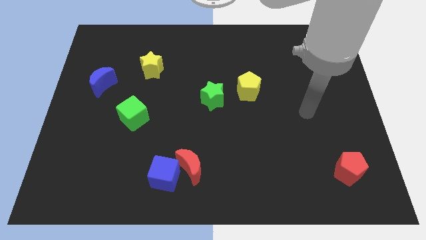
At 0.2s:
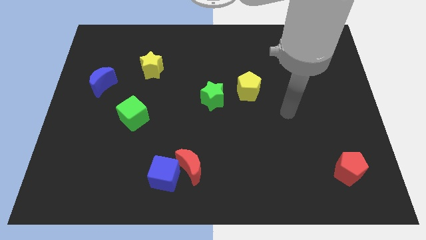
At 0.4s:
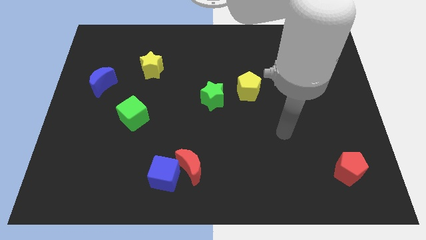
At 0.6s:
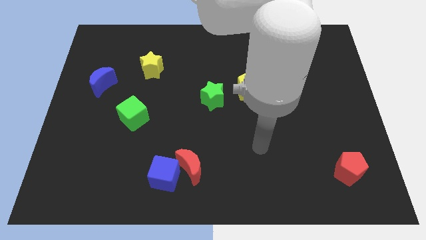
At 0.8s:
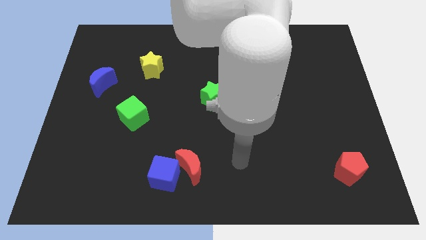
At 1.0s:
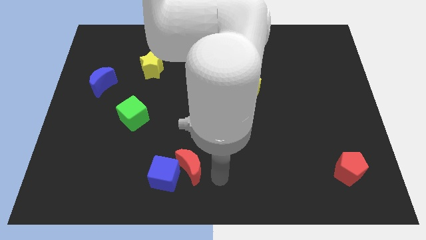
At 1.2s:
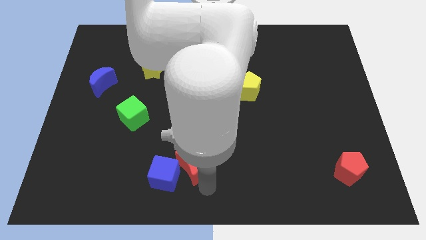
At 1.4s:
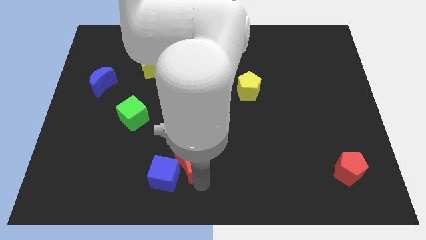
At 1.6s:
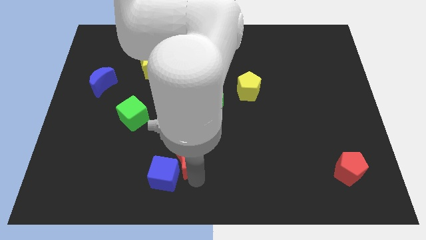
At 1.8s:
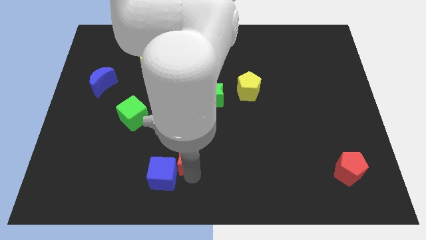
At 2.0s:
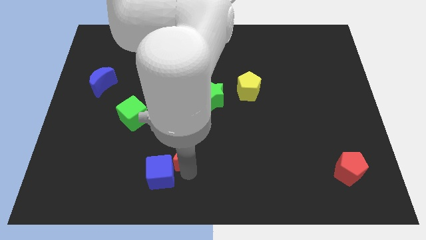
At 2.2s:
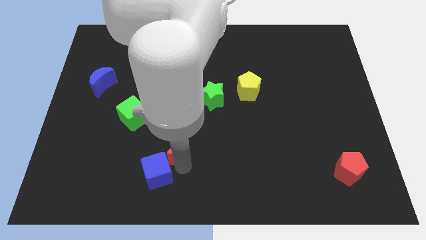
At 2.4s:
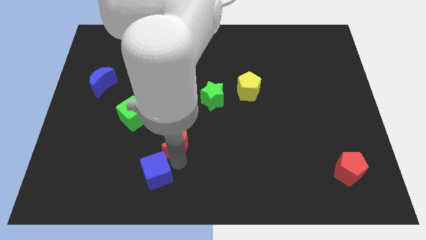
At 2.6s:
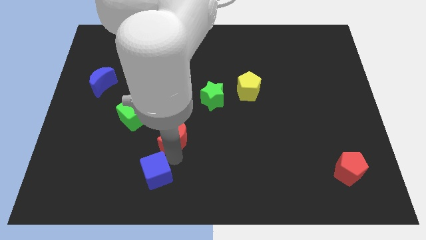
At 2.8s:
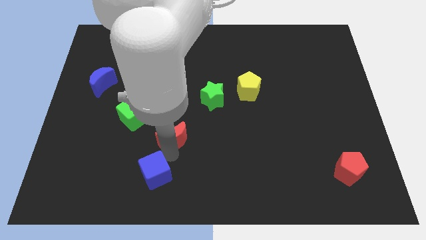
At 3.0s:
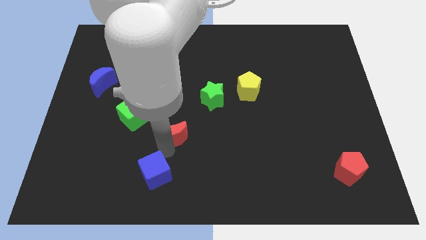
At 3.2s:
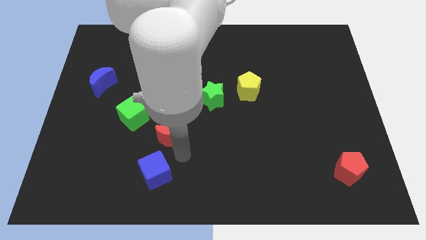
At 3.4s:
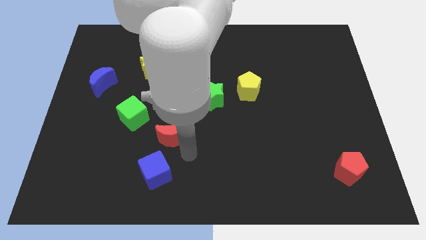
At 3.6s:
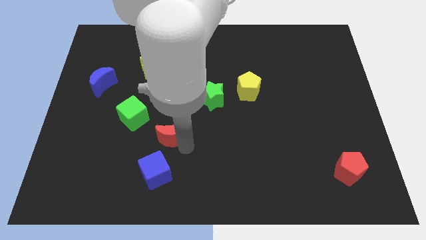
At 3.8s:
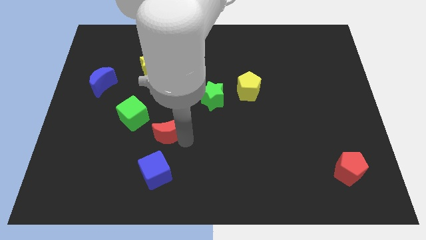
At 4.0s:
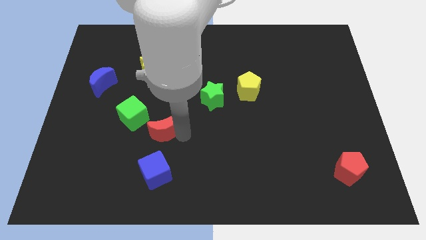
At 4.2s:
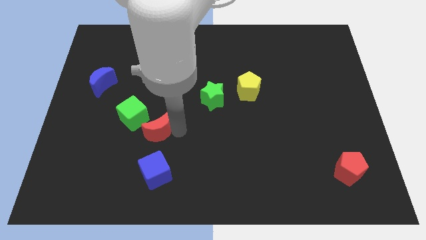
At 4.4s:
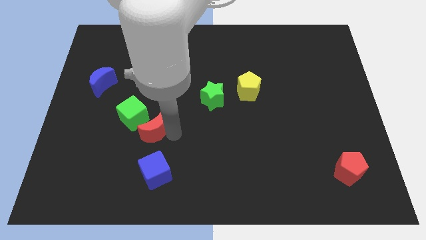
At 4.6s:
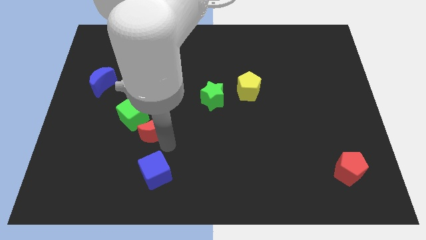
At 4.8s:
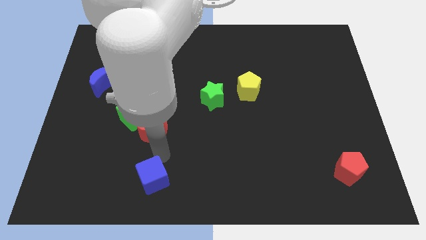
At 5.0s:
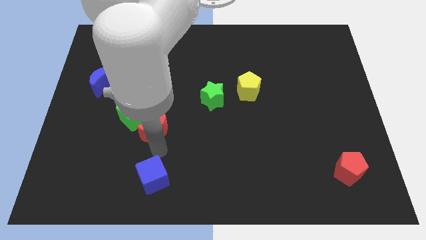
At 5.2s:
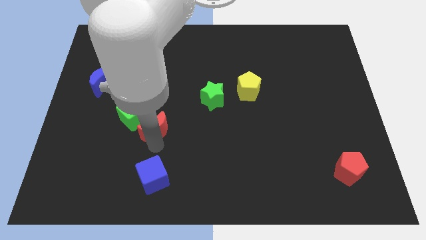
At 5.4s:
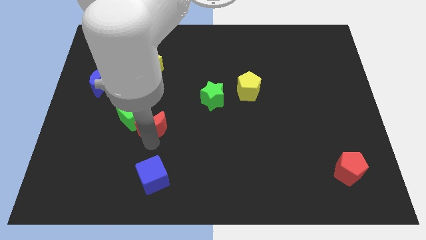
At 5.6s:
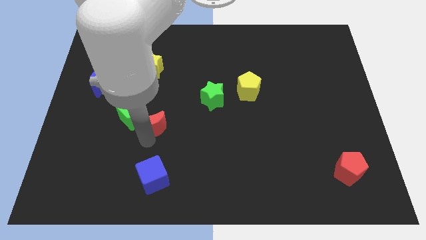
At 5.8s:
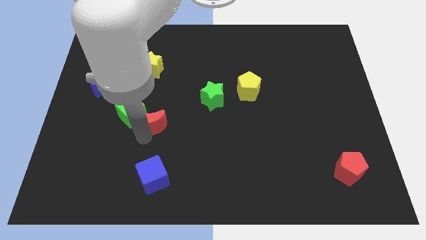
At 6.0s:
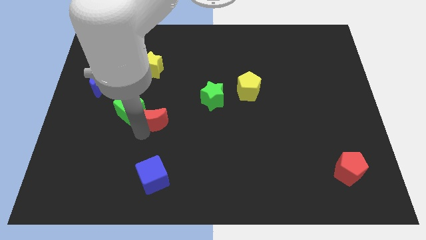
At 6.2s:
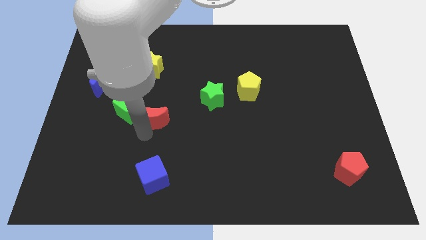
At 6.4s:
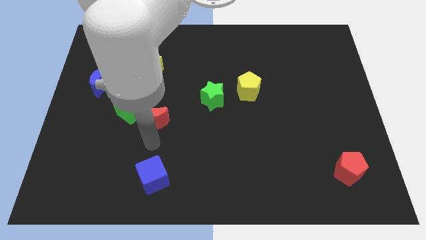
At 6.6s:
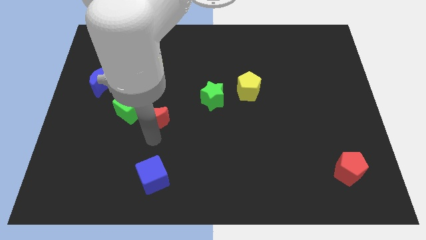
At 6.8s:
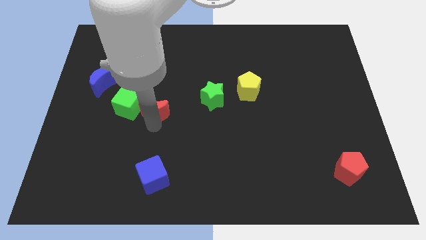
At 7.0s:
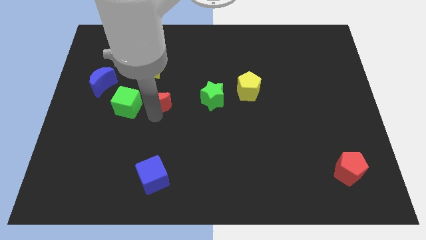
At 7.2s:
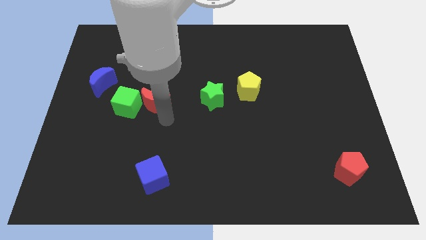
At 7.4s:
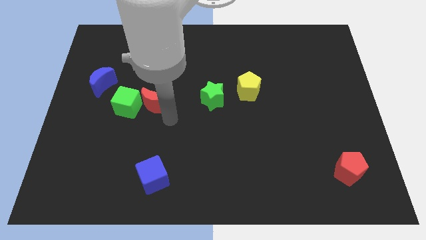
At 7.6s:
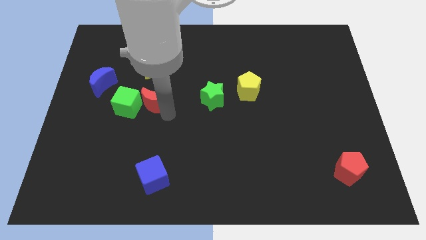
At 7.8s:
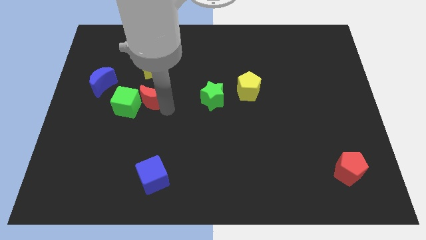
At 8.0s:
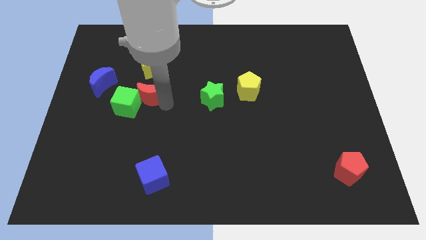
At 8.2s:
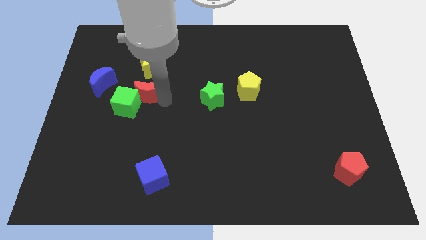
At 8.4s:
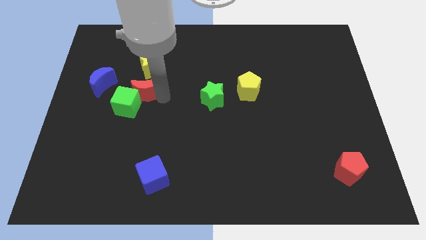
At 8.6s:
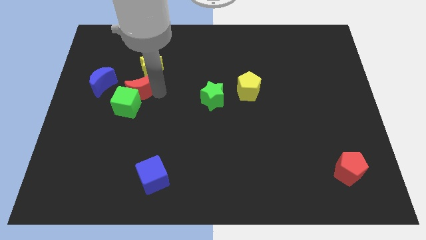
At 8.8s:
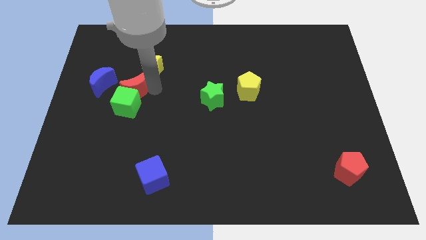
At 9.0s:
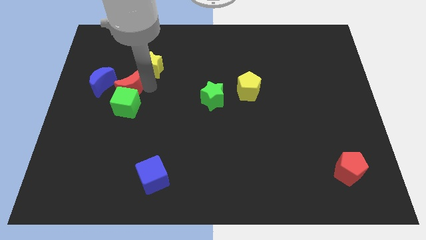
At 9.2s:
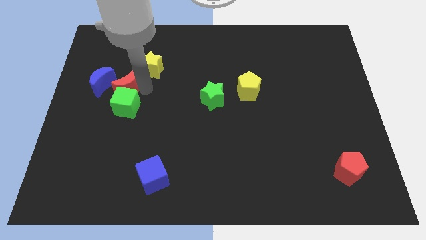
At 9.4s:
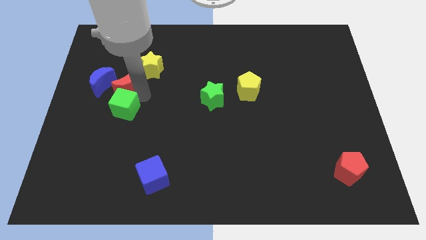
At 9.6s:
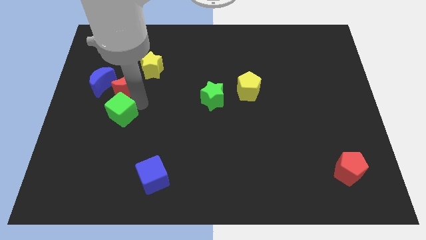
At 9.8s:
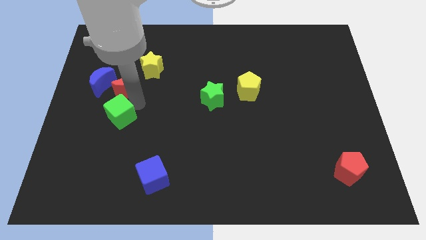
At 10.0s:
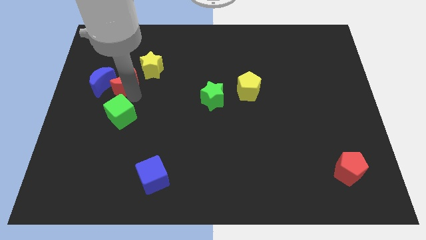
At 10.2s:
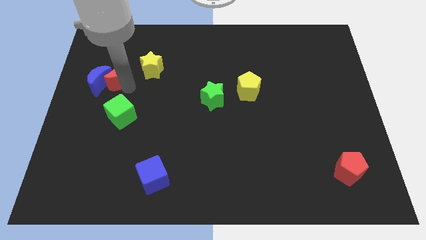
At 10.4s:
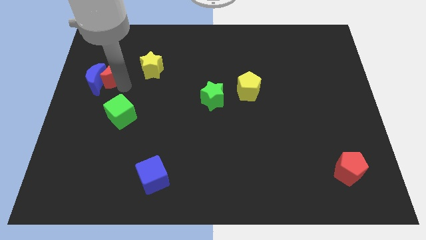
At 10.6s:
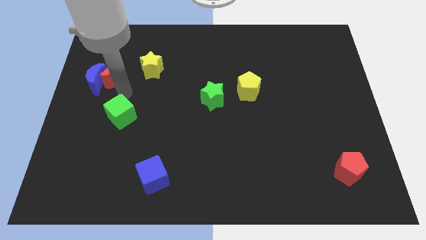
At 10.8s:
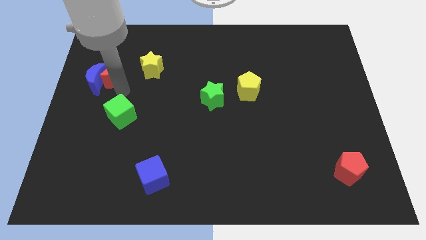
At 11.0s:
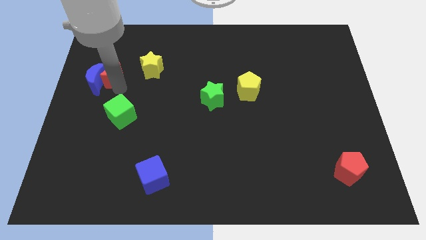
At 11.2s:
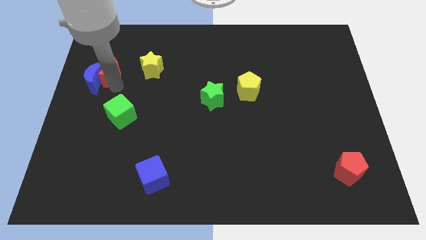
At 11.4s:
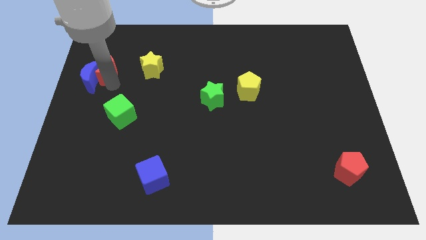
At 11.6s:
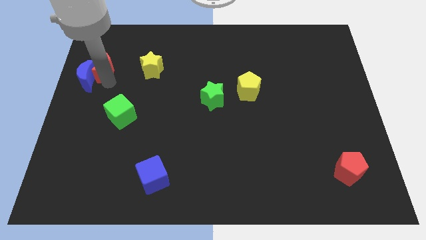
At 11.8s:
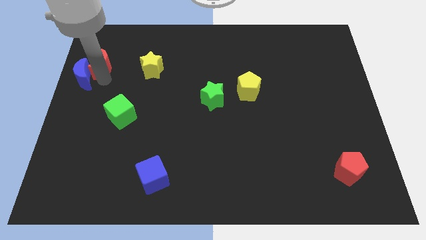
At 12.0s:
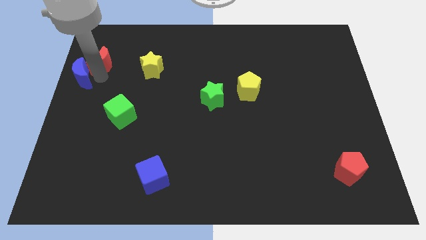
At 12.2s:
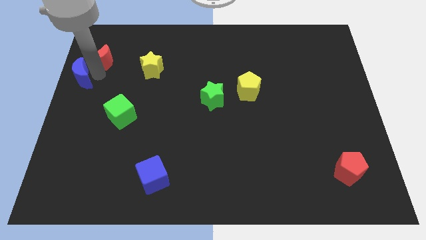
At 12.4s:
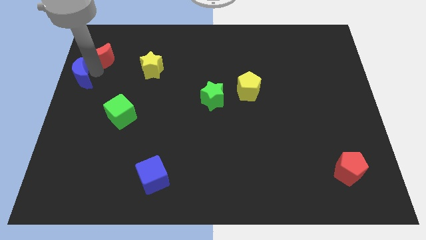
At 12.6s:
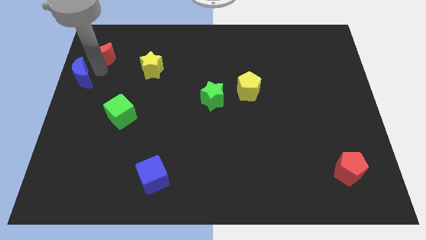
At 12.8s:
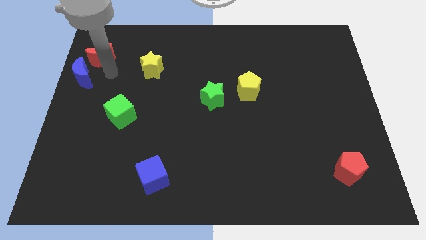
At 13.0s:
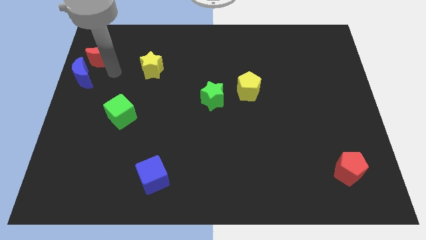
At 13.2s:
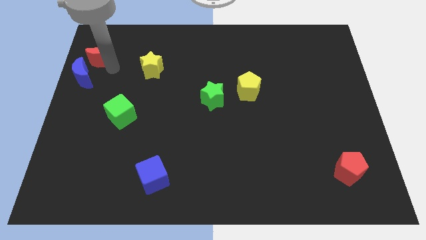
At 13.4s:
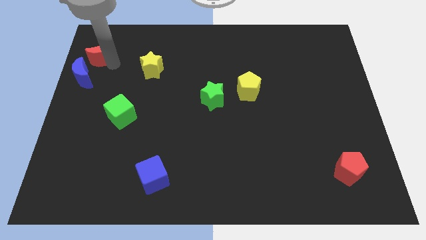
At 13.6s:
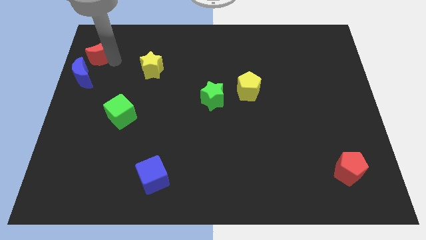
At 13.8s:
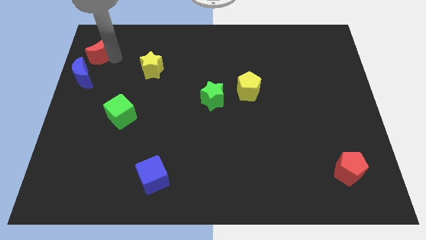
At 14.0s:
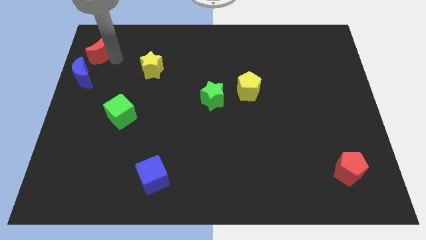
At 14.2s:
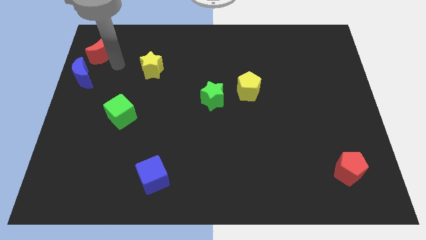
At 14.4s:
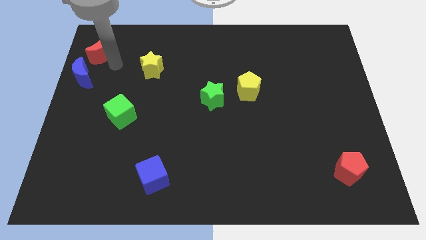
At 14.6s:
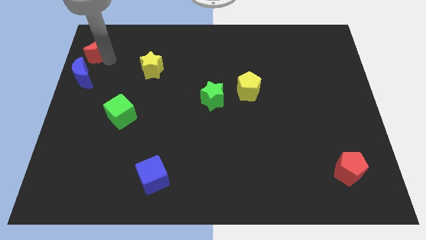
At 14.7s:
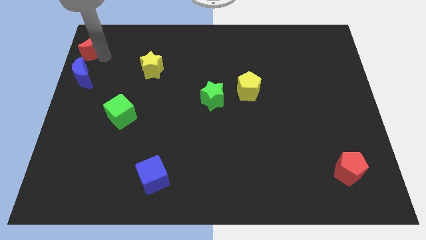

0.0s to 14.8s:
move the red moon to the upper left corner
